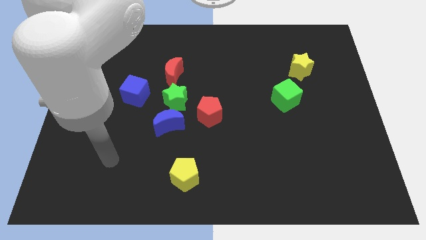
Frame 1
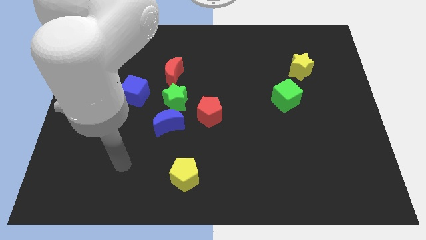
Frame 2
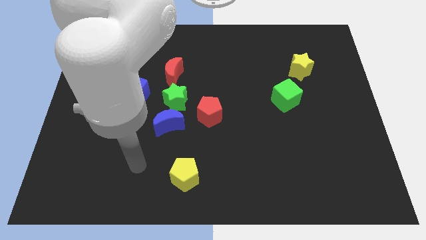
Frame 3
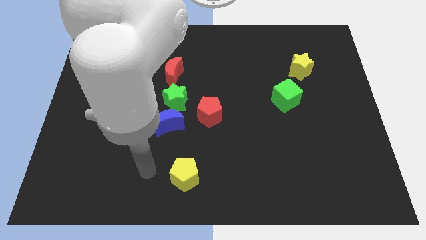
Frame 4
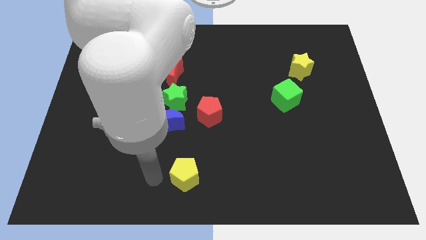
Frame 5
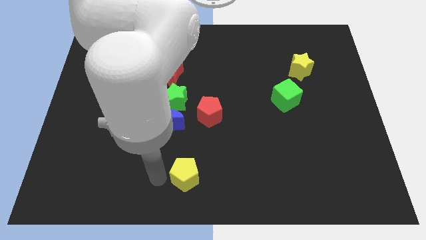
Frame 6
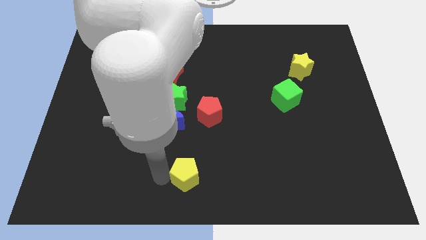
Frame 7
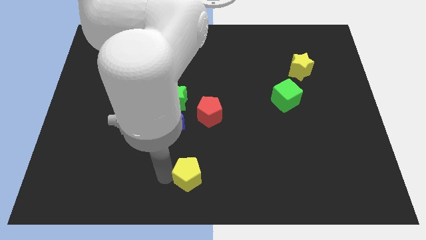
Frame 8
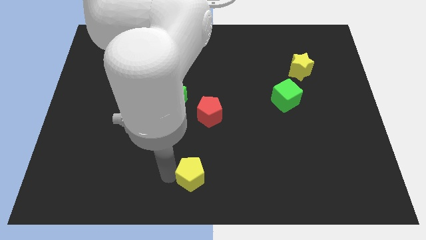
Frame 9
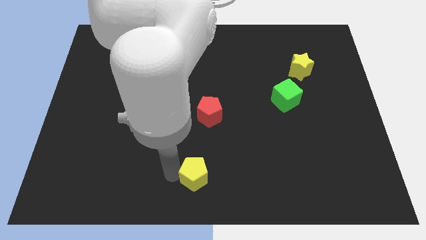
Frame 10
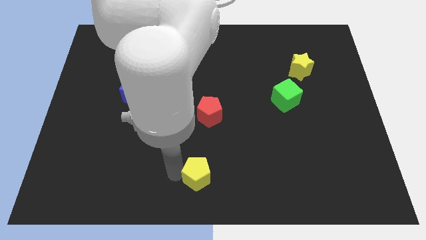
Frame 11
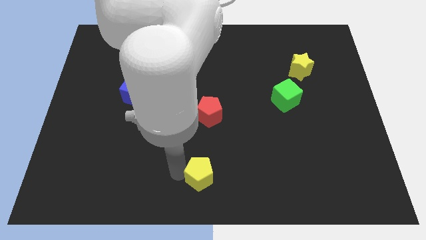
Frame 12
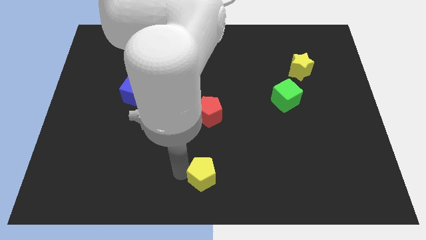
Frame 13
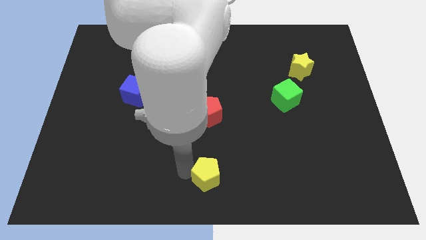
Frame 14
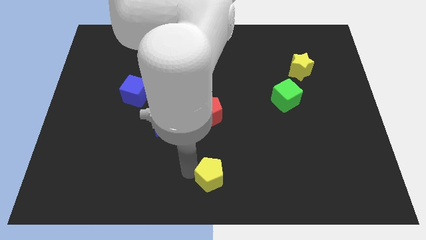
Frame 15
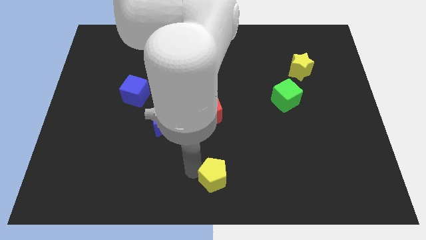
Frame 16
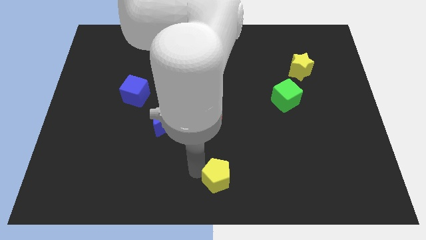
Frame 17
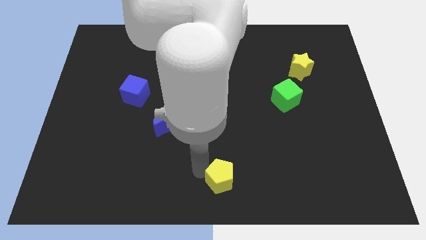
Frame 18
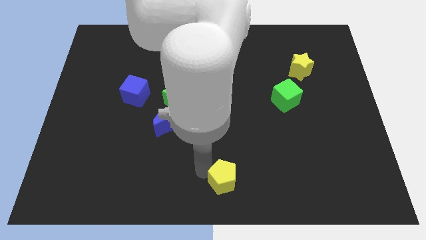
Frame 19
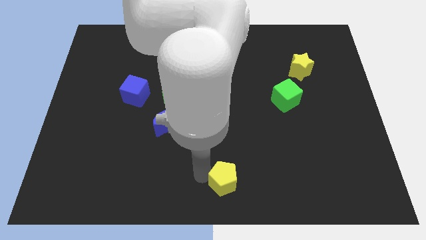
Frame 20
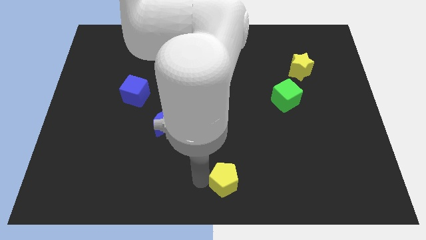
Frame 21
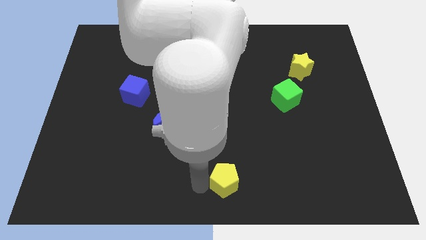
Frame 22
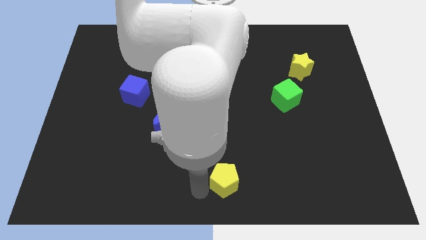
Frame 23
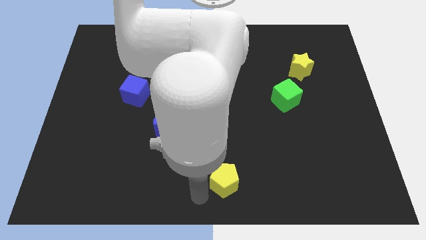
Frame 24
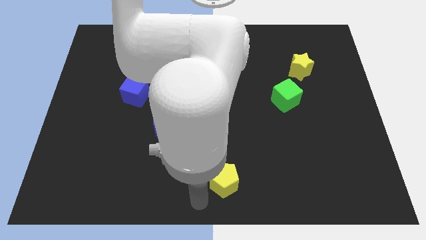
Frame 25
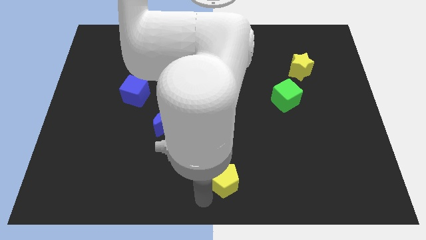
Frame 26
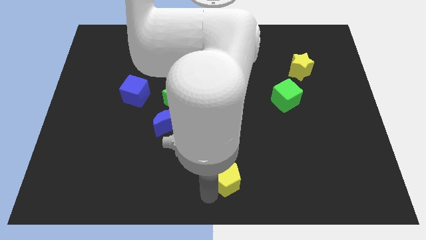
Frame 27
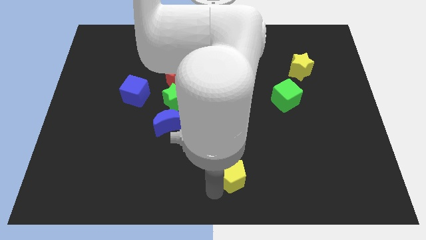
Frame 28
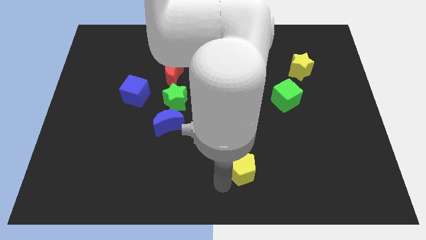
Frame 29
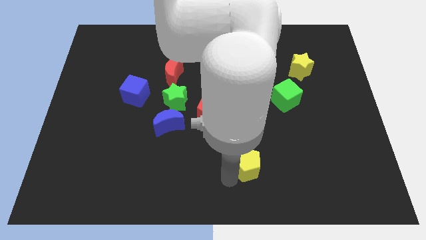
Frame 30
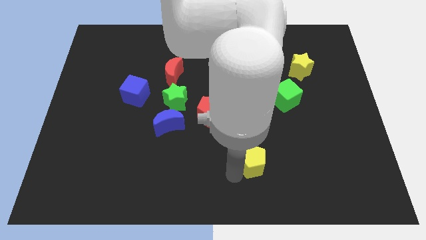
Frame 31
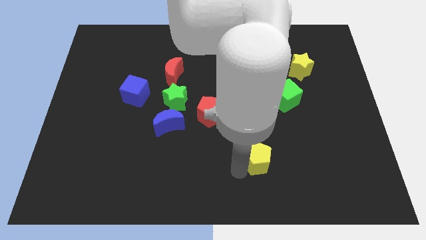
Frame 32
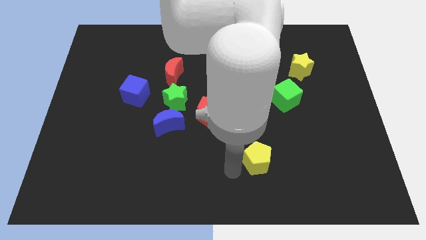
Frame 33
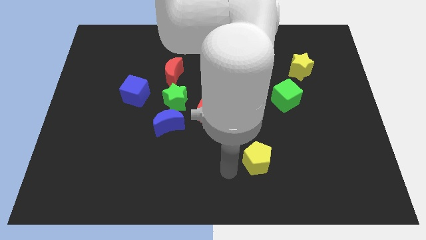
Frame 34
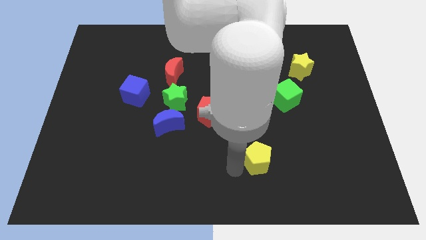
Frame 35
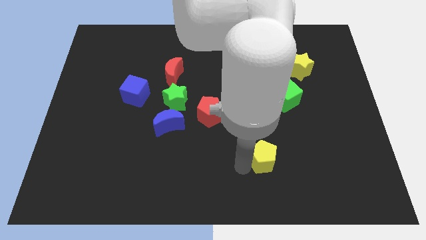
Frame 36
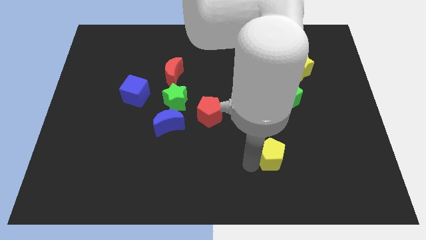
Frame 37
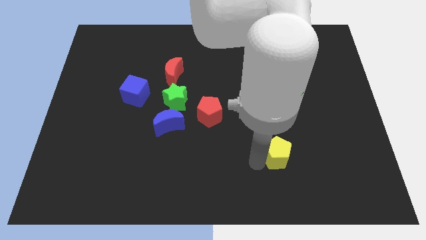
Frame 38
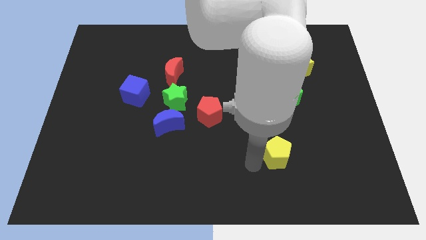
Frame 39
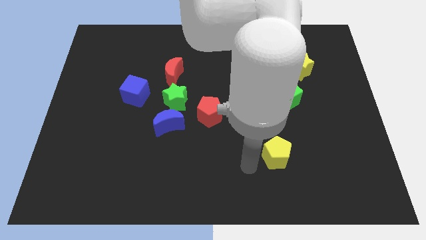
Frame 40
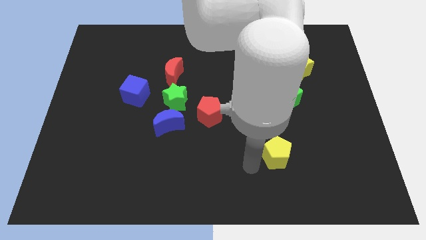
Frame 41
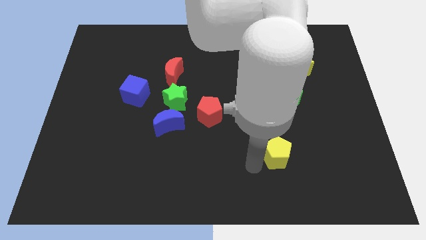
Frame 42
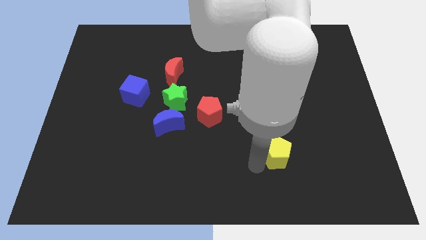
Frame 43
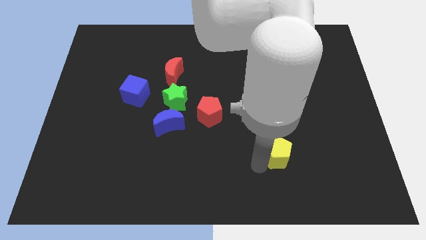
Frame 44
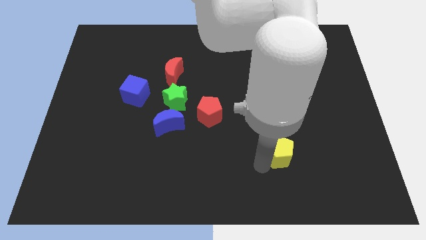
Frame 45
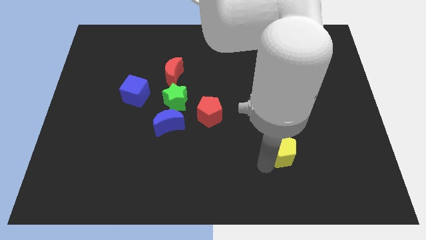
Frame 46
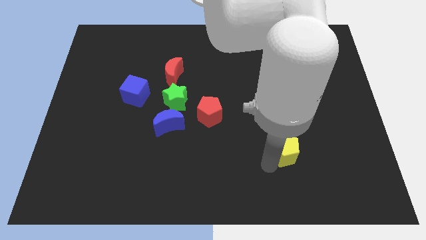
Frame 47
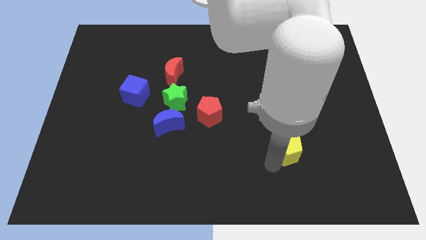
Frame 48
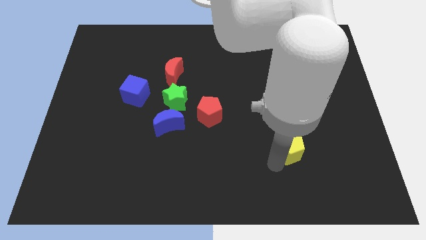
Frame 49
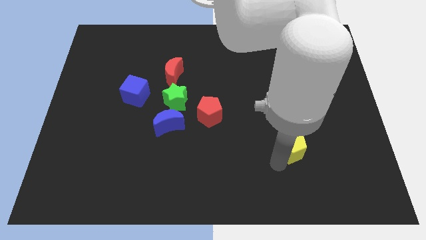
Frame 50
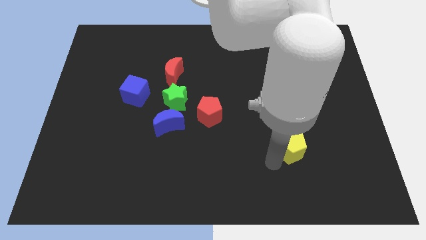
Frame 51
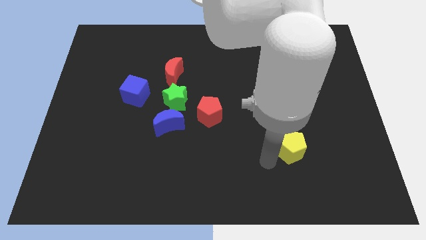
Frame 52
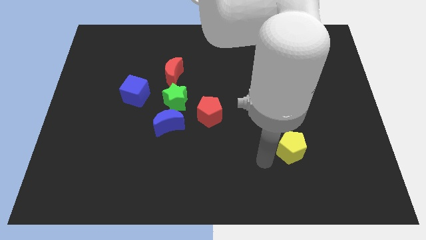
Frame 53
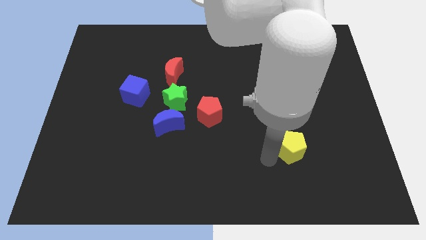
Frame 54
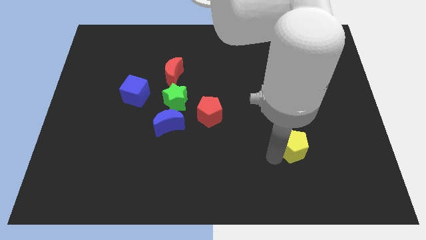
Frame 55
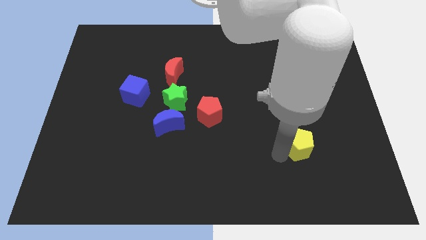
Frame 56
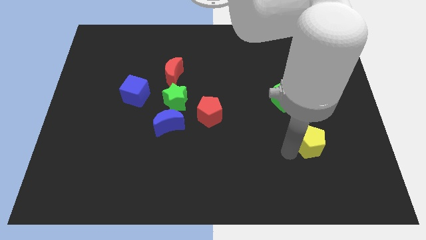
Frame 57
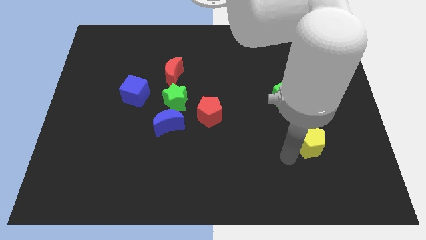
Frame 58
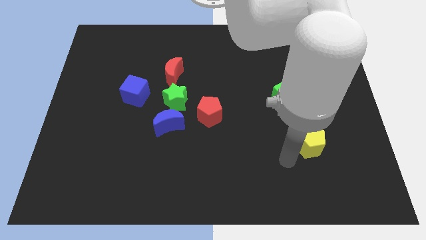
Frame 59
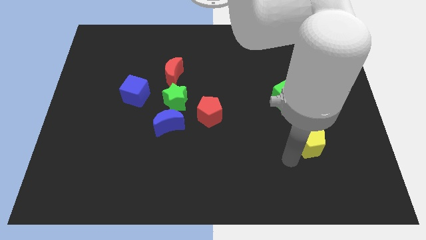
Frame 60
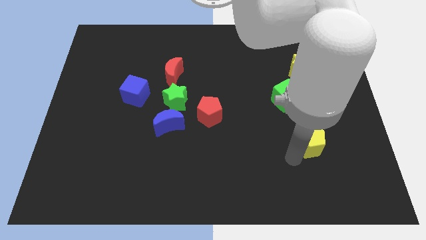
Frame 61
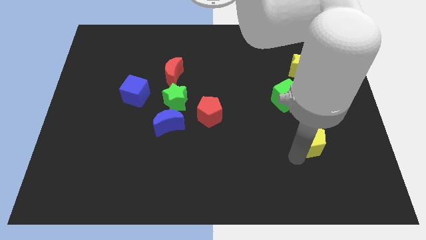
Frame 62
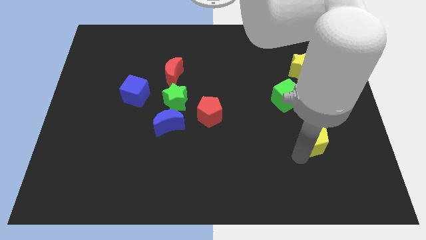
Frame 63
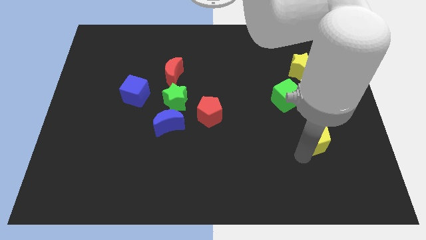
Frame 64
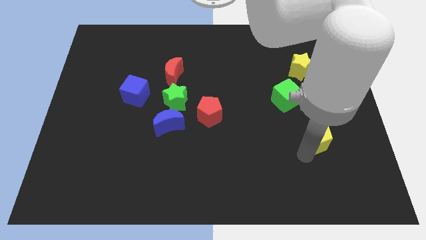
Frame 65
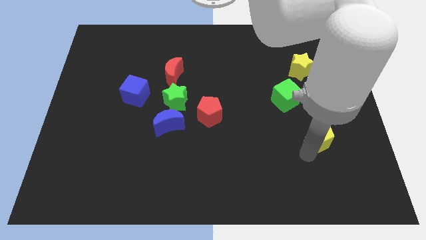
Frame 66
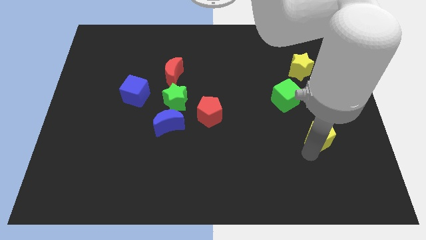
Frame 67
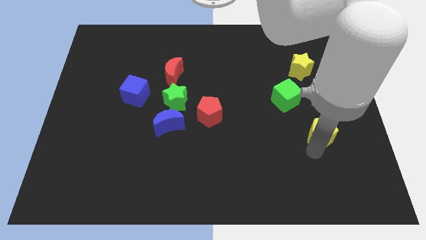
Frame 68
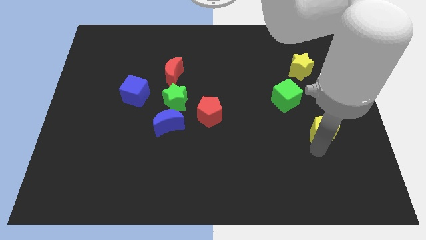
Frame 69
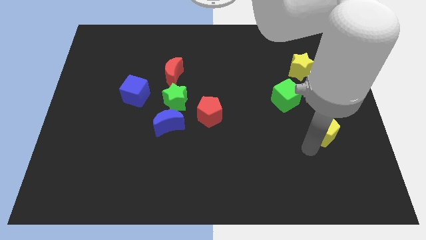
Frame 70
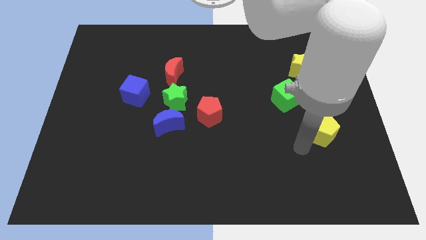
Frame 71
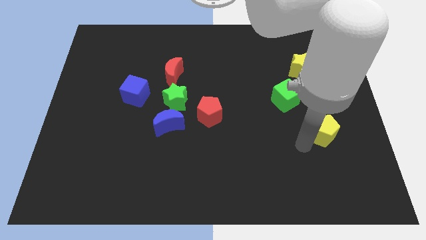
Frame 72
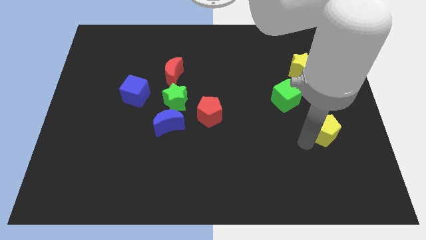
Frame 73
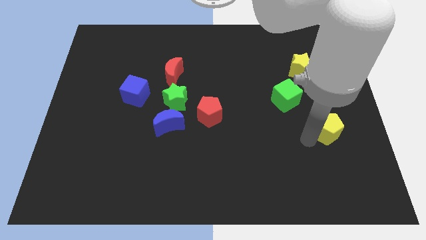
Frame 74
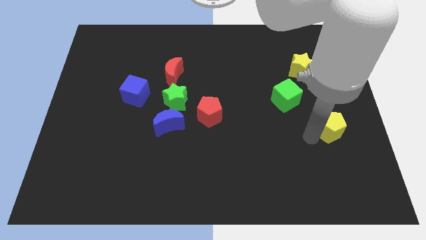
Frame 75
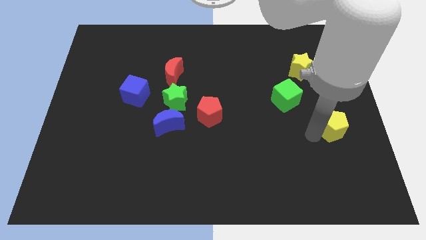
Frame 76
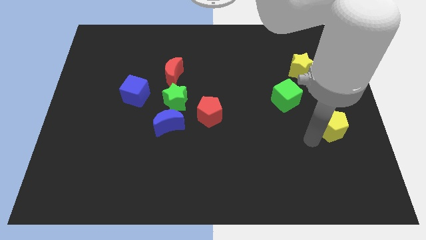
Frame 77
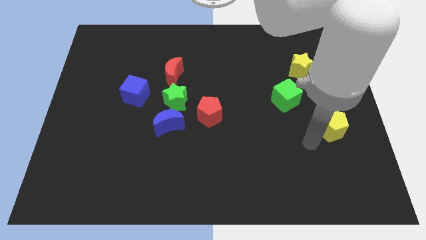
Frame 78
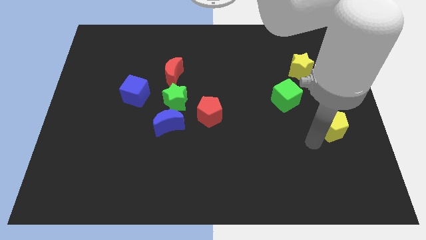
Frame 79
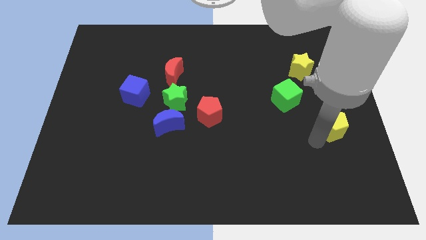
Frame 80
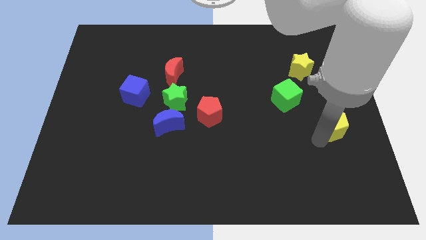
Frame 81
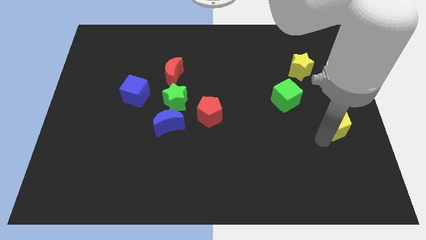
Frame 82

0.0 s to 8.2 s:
slide the yellow pentagon to the right side
